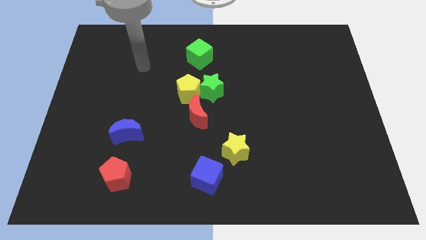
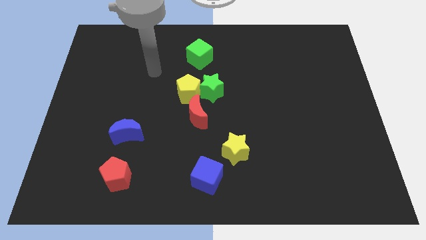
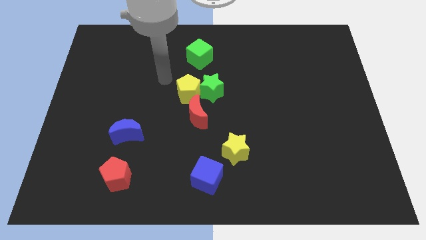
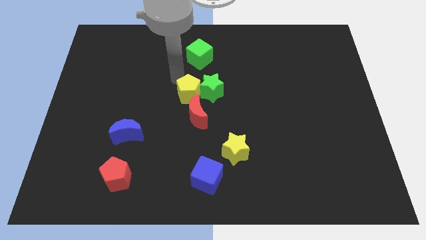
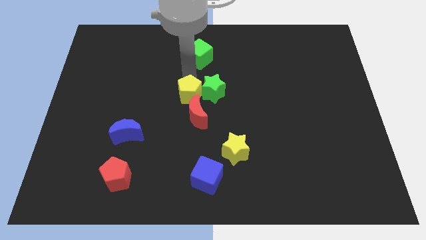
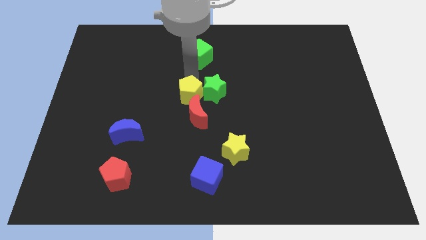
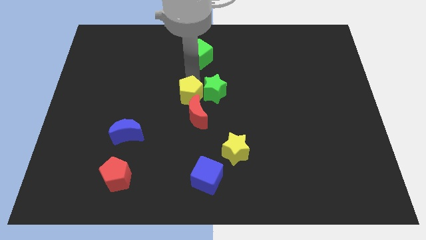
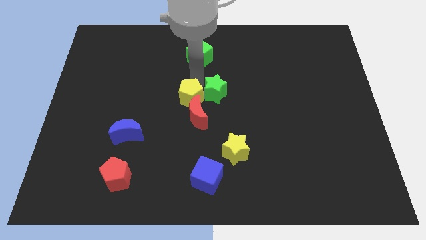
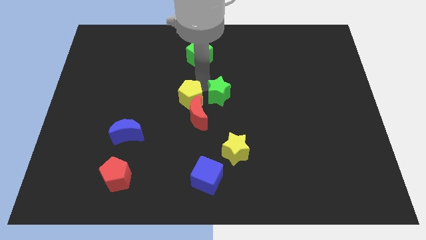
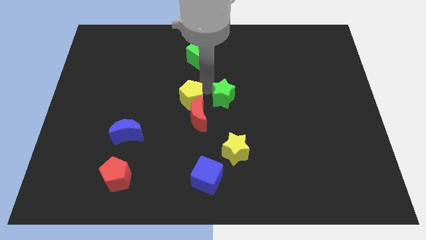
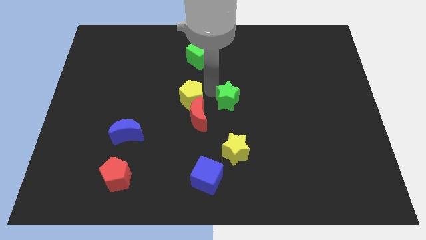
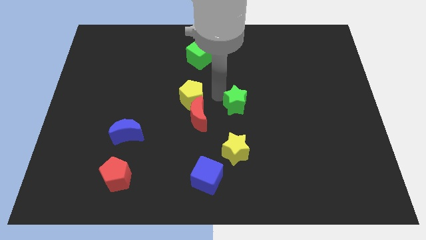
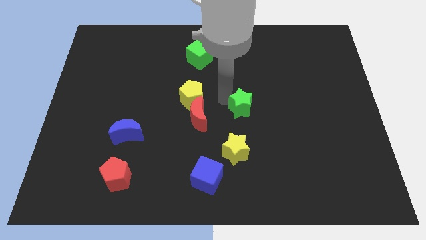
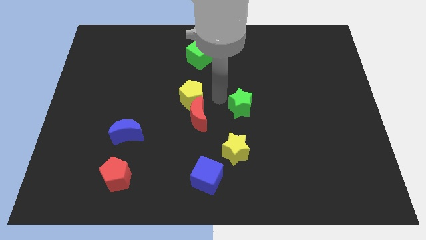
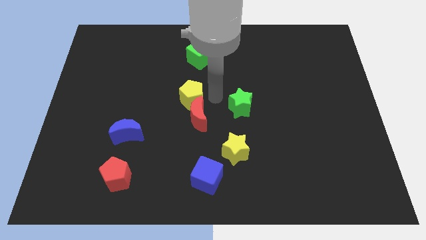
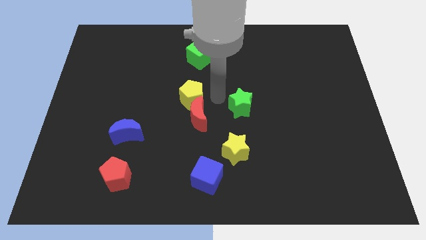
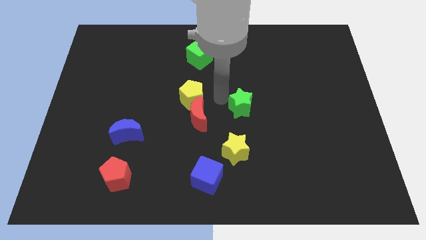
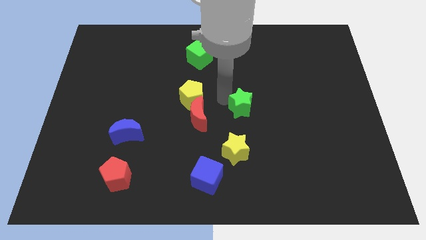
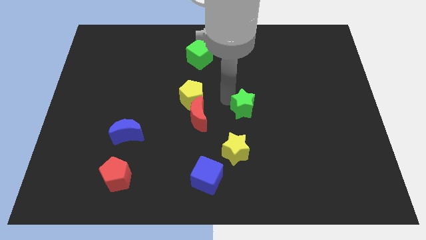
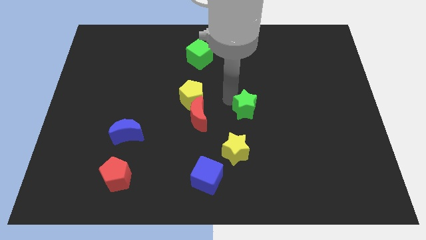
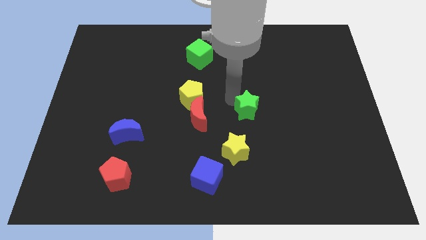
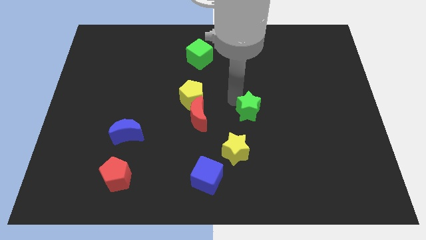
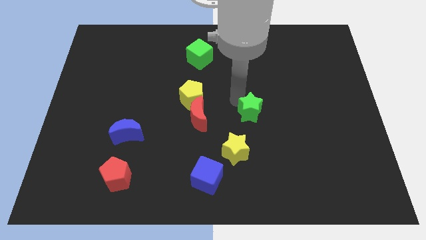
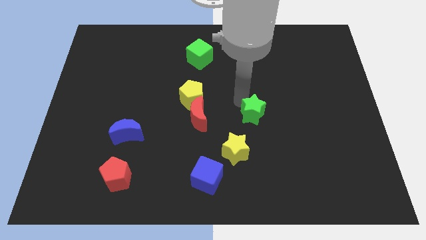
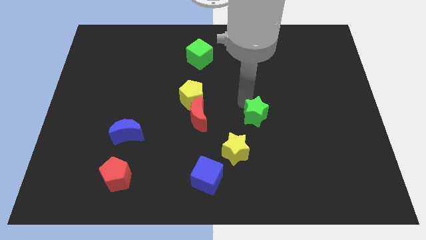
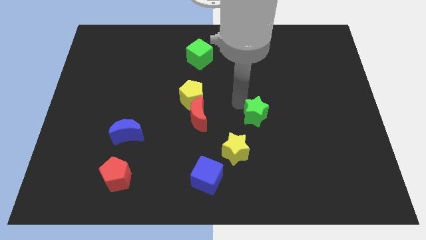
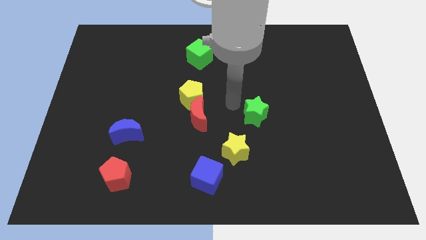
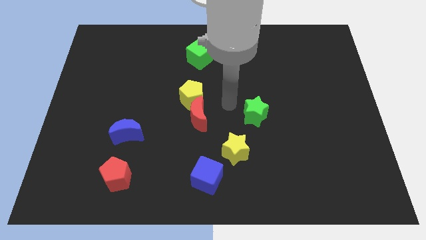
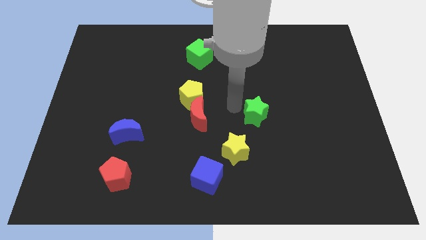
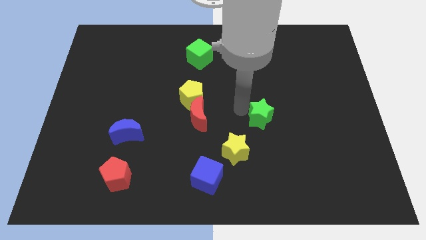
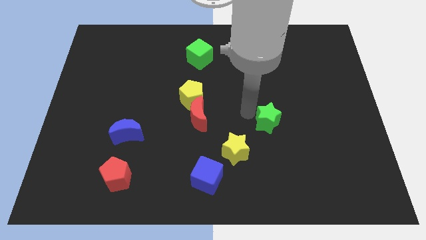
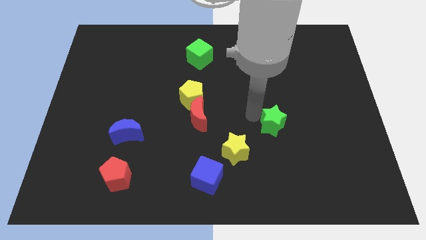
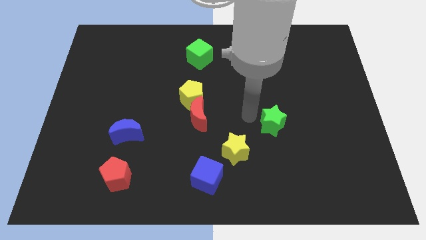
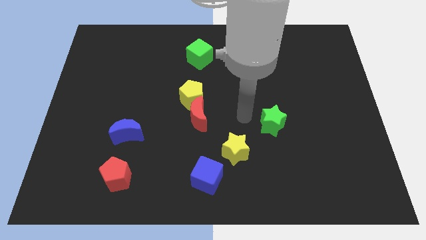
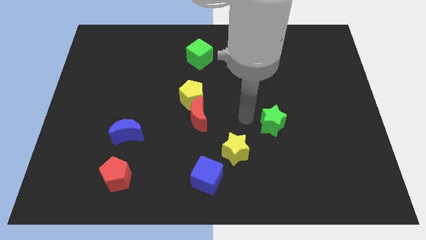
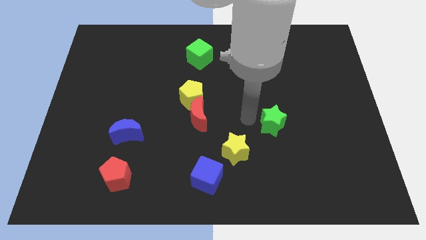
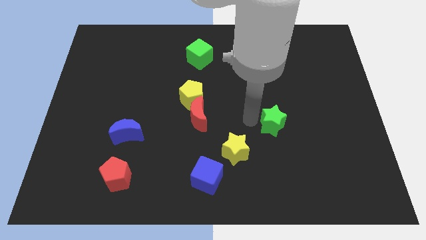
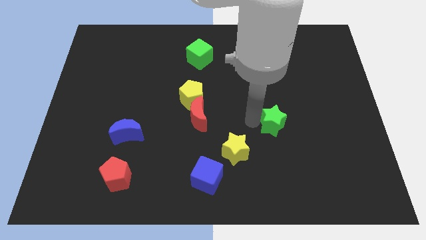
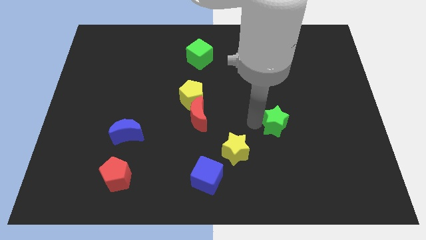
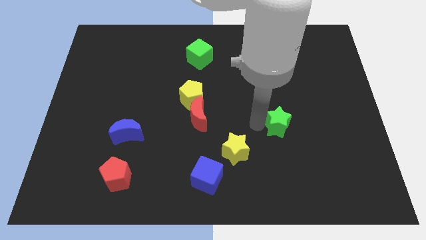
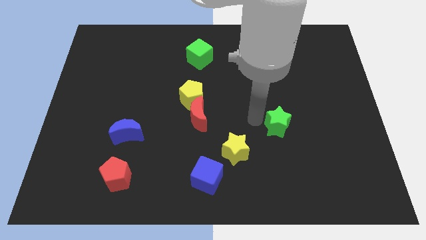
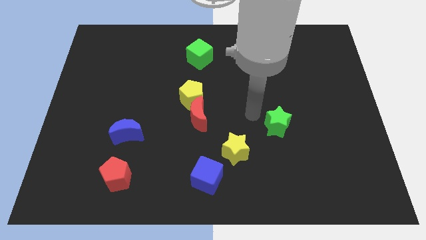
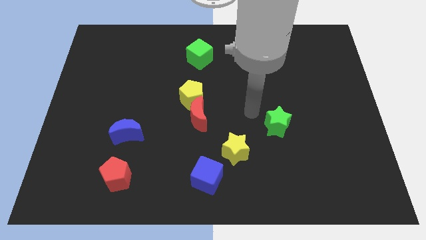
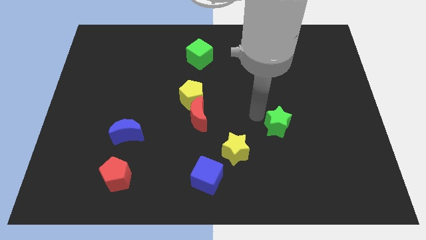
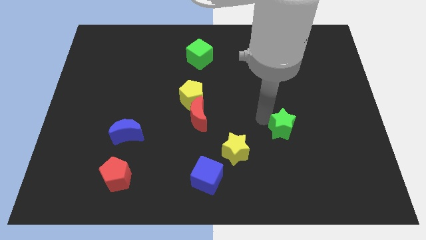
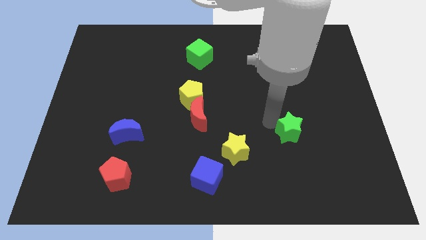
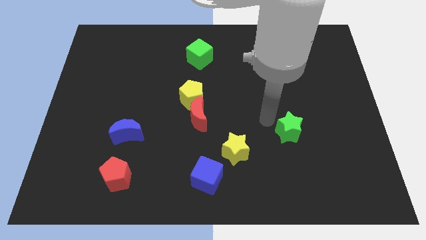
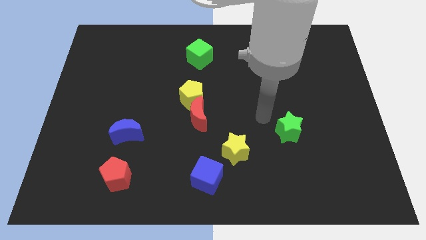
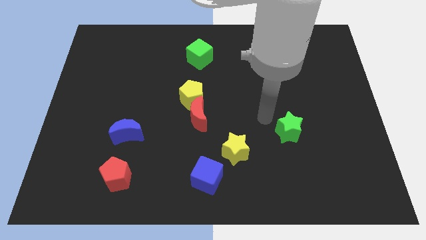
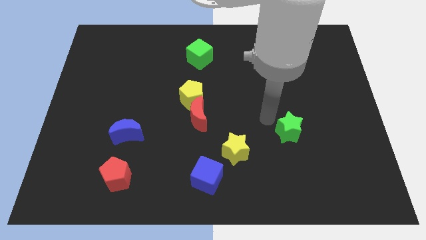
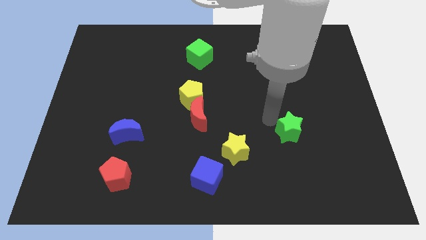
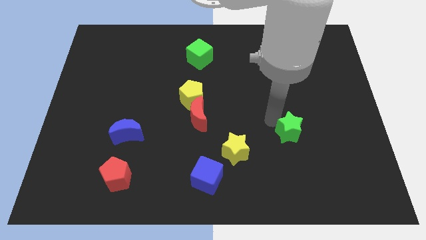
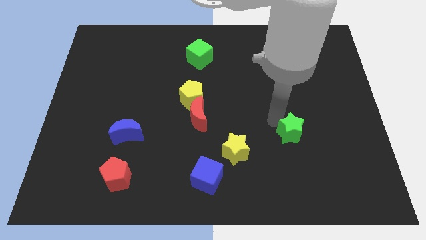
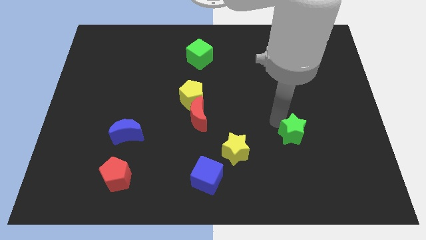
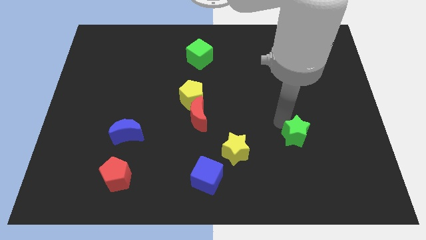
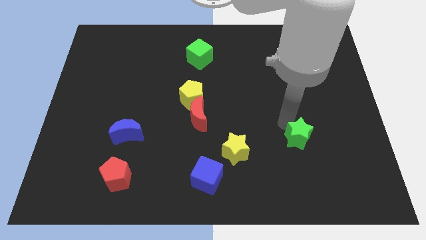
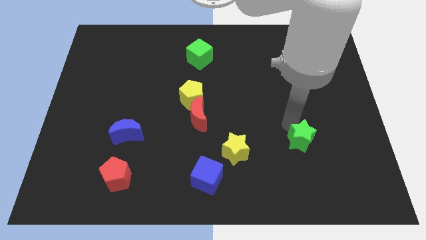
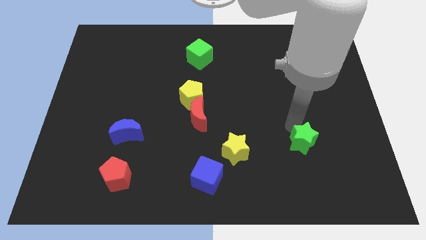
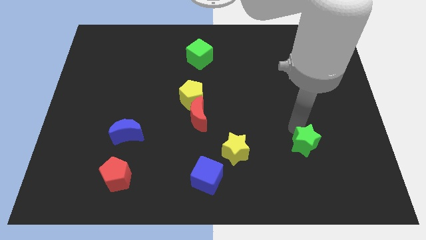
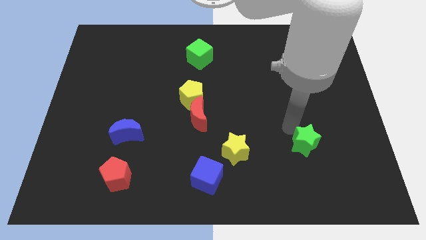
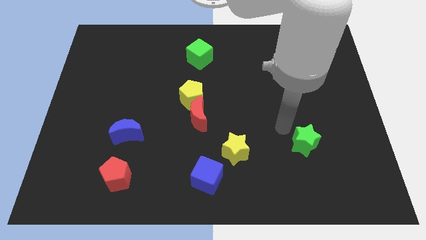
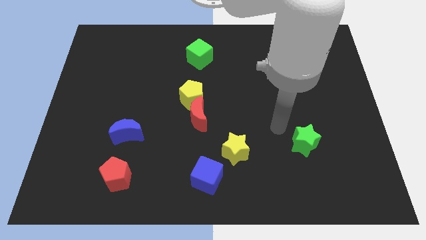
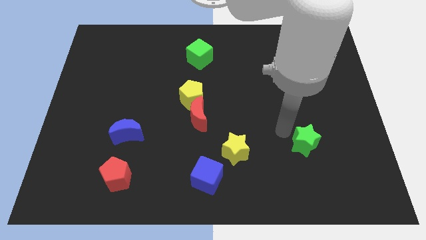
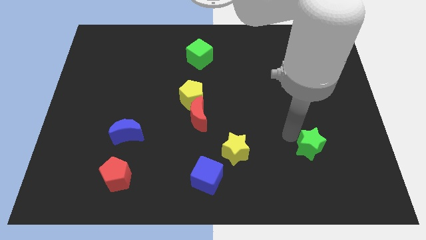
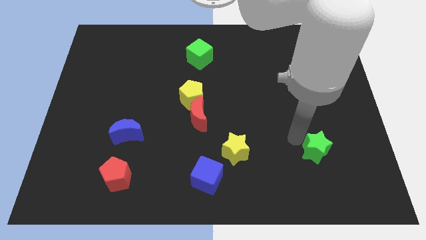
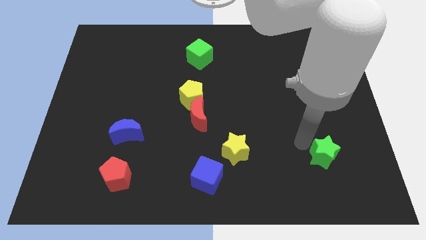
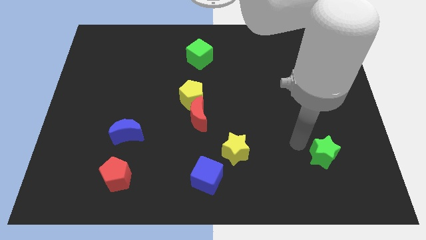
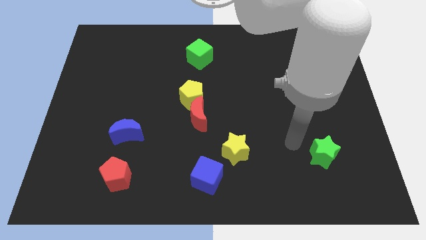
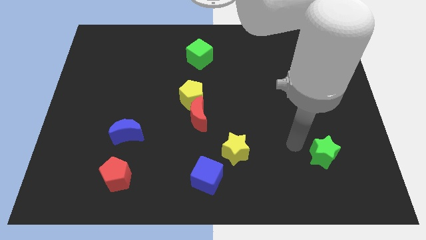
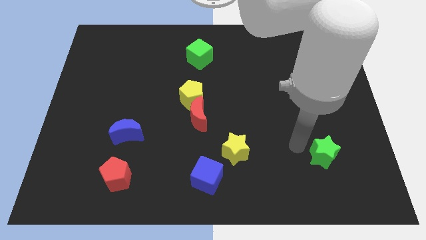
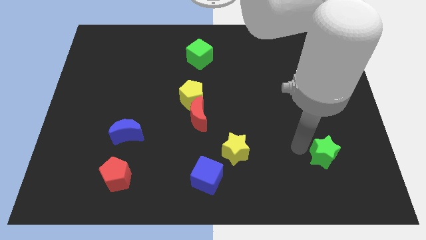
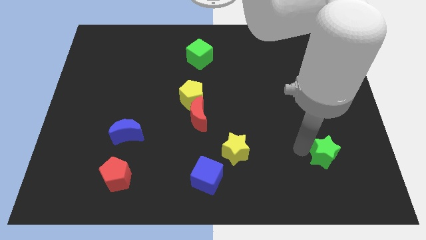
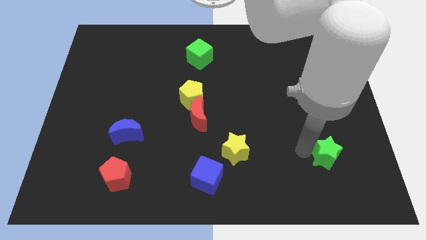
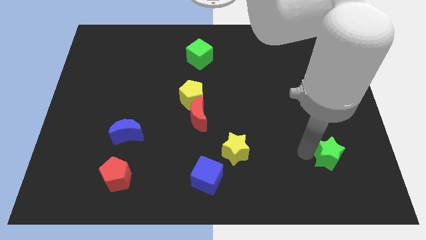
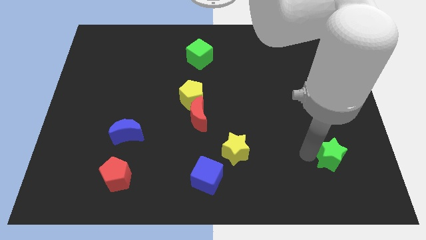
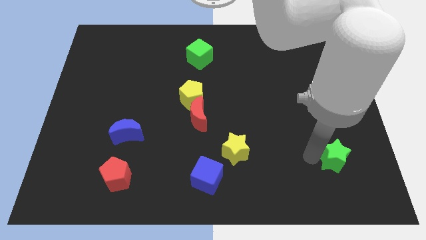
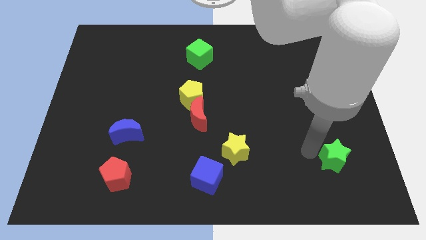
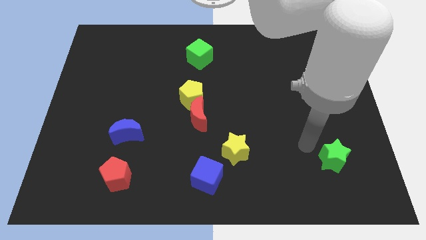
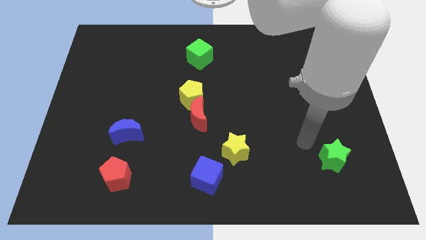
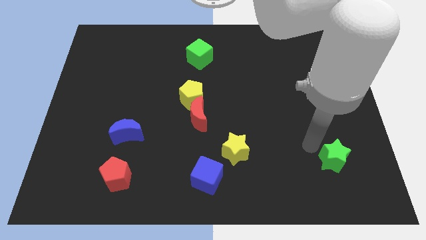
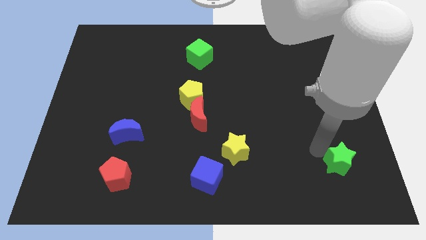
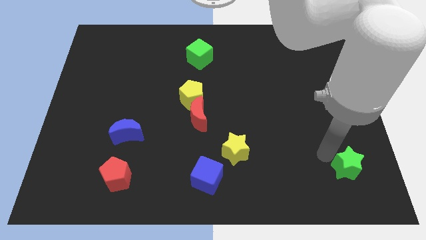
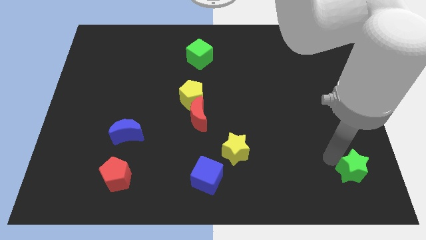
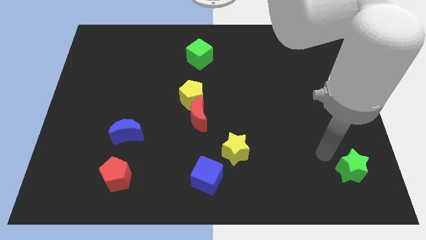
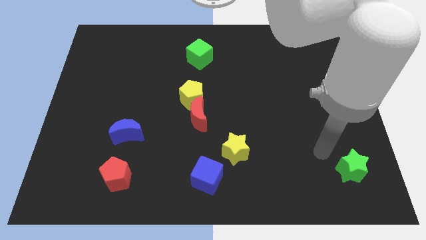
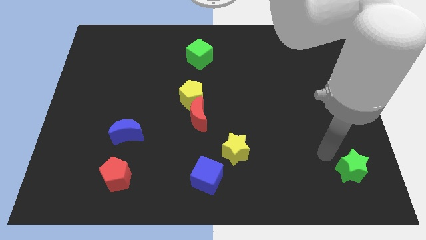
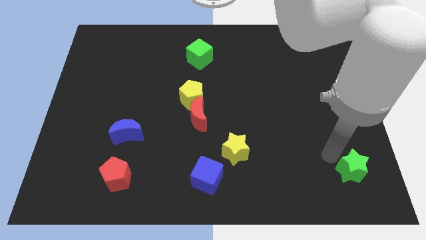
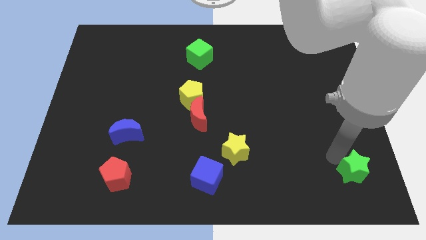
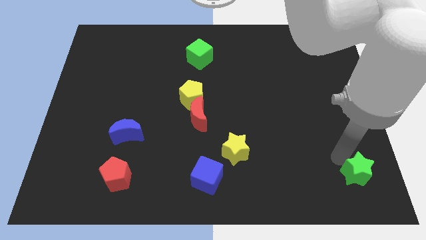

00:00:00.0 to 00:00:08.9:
put the green star to the bottom right
